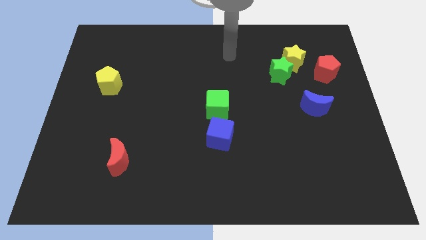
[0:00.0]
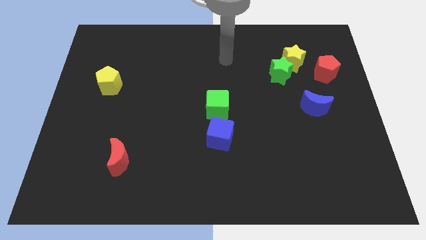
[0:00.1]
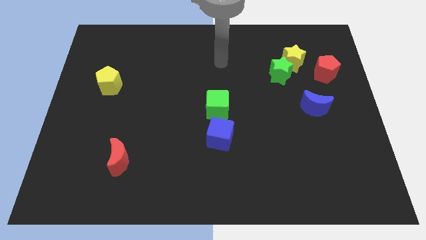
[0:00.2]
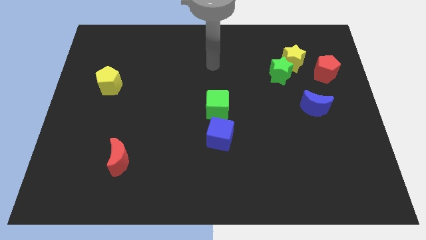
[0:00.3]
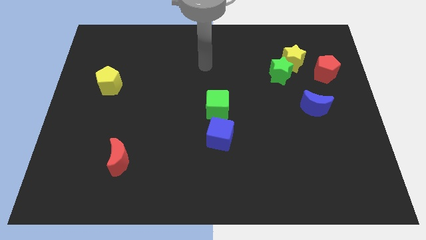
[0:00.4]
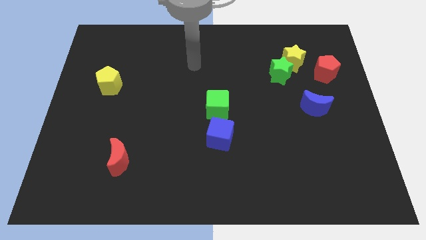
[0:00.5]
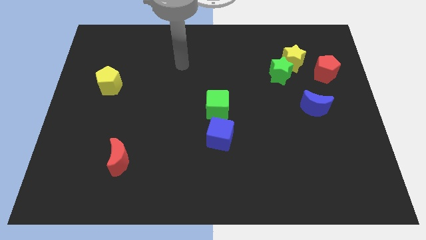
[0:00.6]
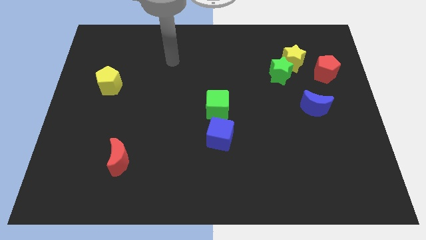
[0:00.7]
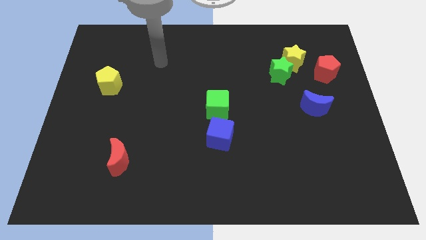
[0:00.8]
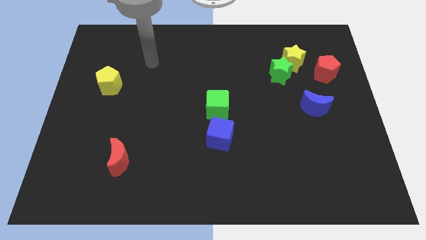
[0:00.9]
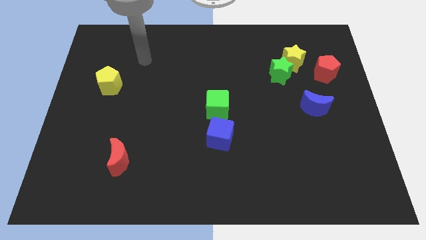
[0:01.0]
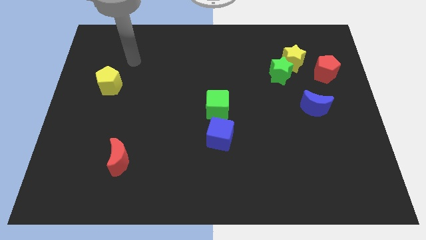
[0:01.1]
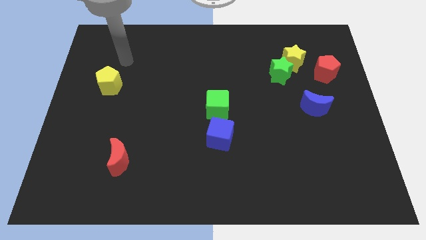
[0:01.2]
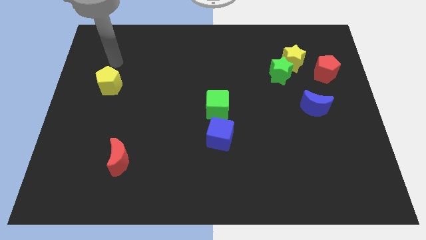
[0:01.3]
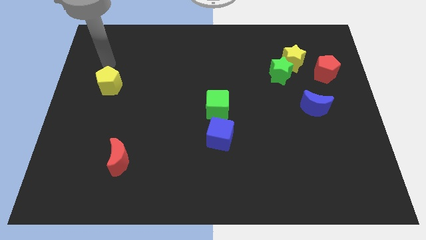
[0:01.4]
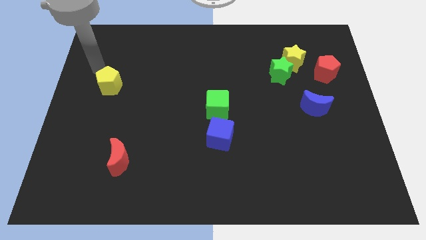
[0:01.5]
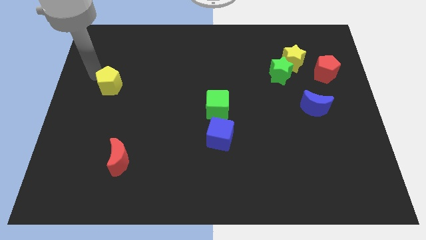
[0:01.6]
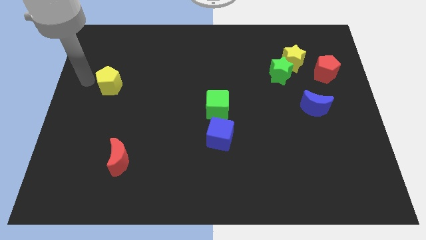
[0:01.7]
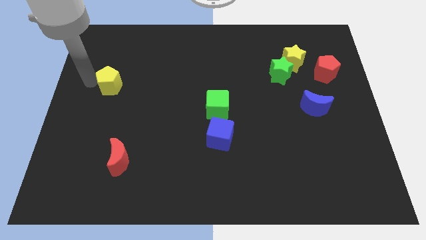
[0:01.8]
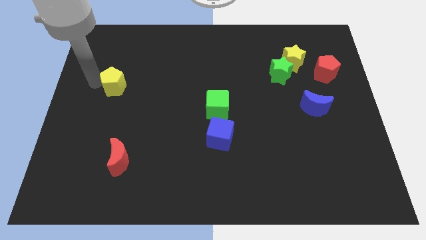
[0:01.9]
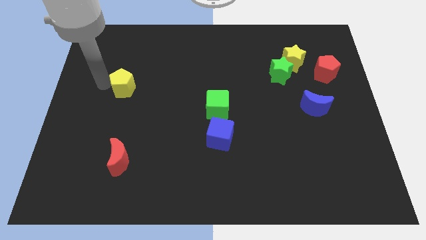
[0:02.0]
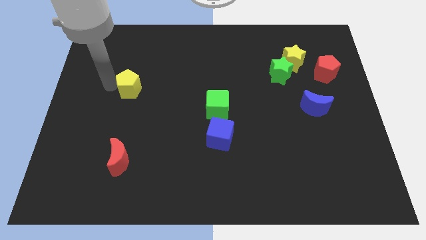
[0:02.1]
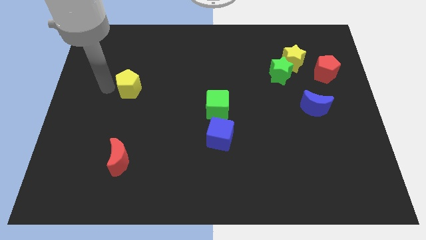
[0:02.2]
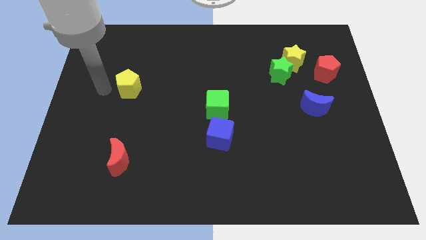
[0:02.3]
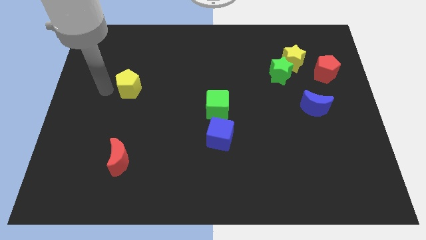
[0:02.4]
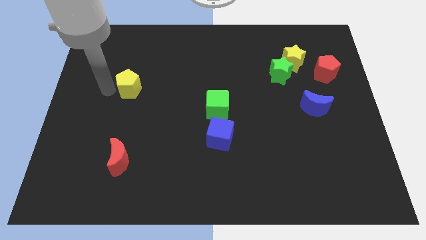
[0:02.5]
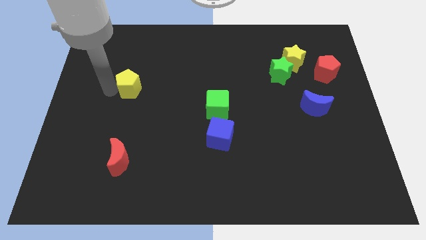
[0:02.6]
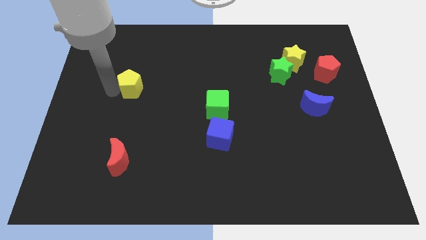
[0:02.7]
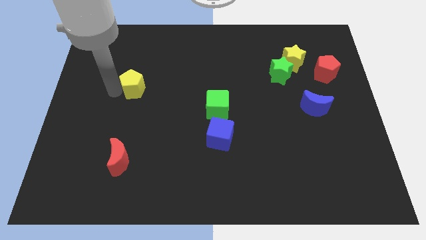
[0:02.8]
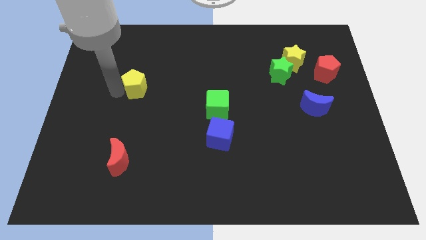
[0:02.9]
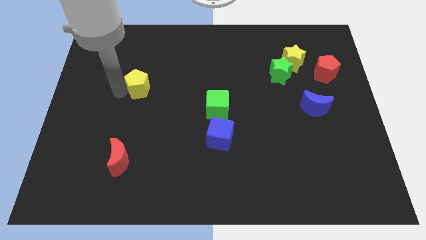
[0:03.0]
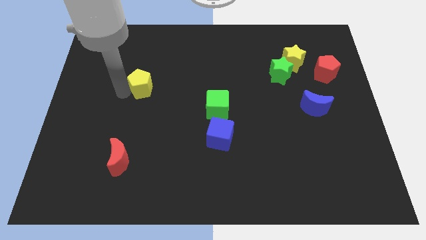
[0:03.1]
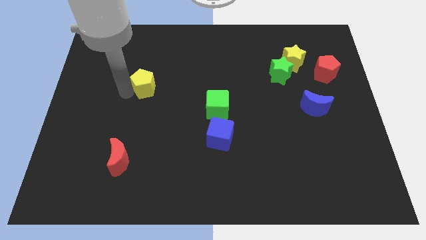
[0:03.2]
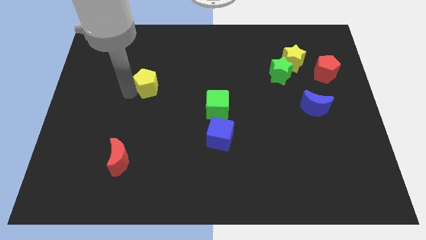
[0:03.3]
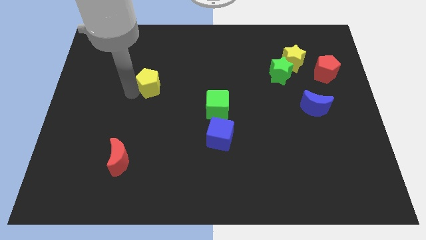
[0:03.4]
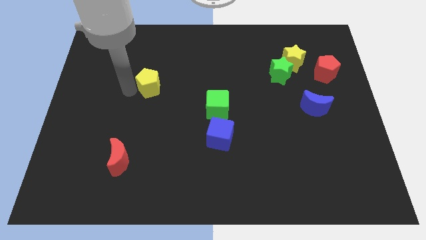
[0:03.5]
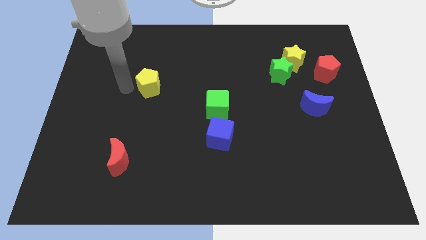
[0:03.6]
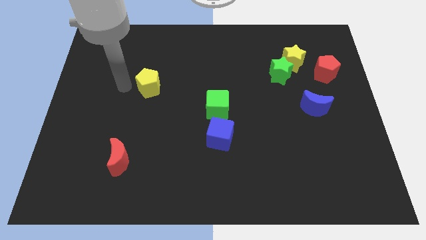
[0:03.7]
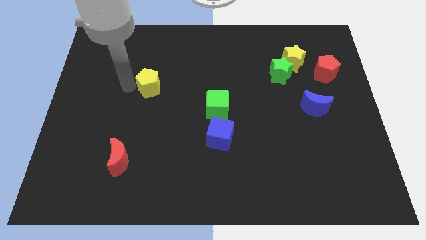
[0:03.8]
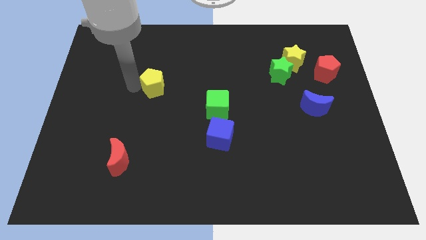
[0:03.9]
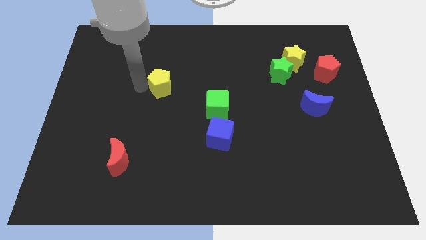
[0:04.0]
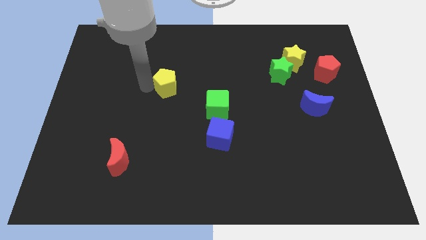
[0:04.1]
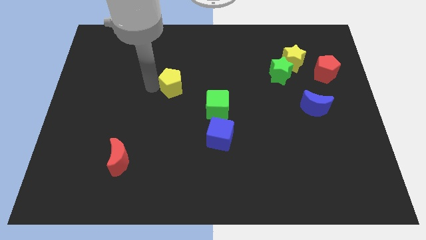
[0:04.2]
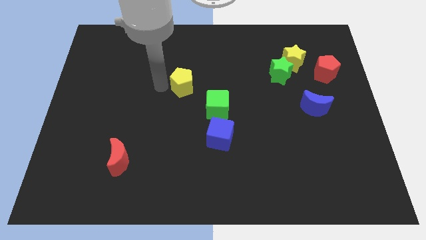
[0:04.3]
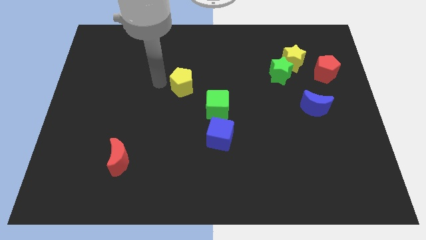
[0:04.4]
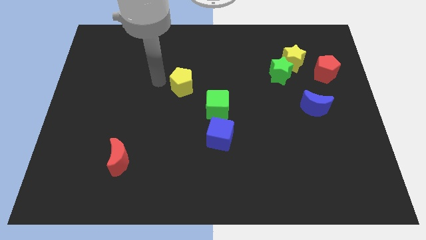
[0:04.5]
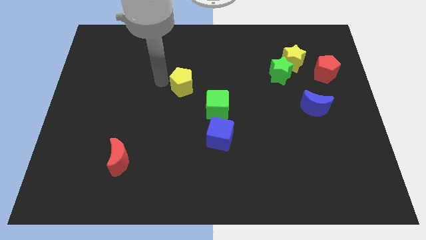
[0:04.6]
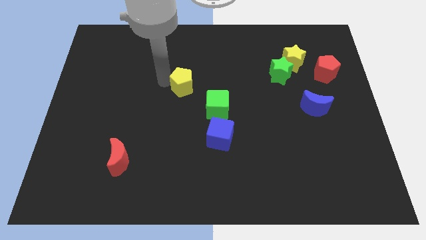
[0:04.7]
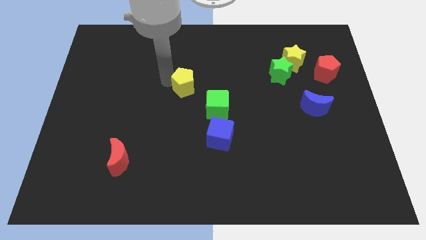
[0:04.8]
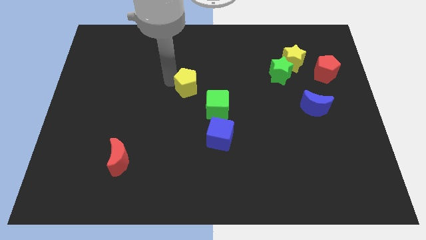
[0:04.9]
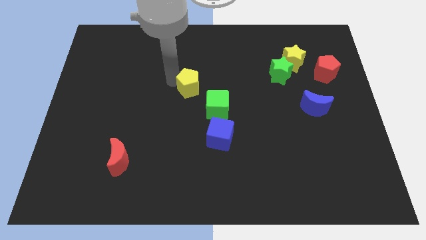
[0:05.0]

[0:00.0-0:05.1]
push the yellow pentagon right

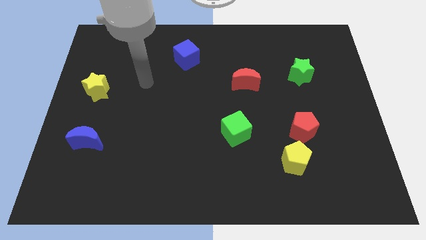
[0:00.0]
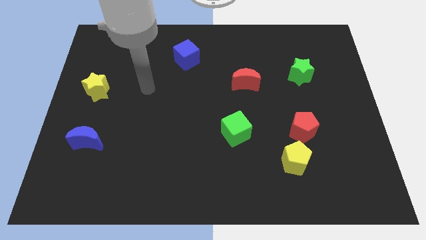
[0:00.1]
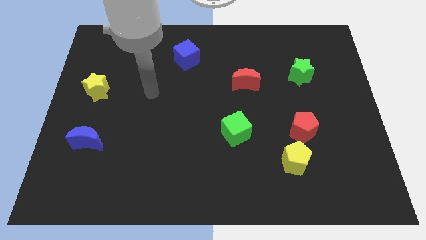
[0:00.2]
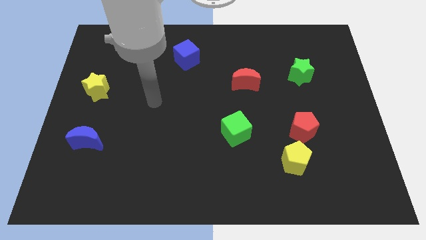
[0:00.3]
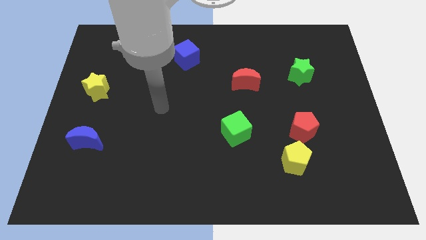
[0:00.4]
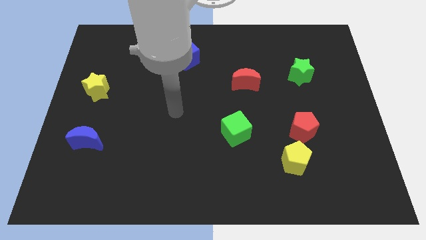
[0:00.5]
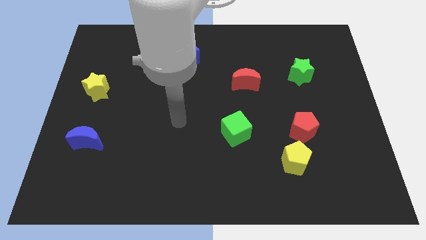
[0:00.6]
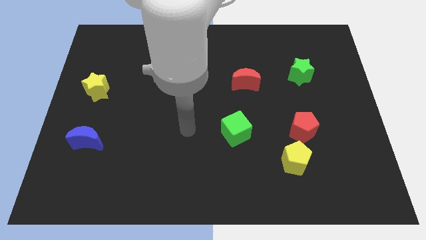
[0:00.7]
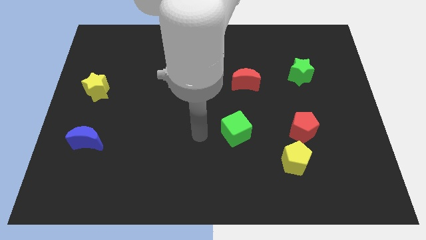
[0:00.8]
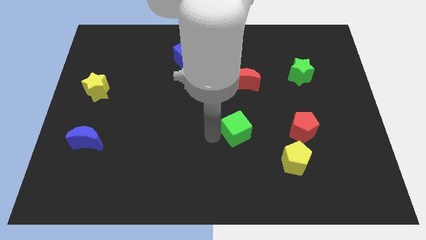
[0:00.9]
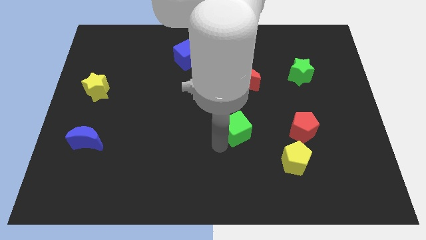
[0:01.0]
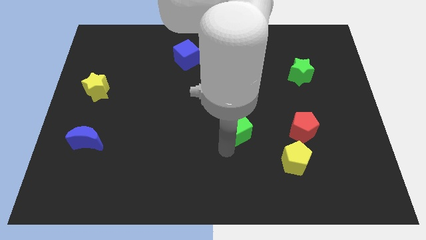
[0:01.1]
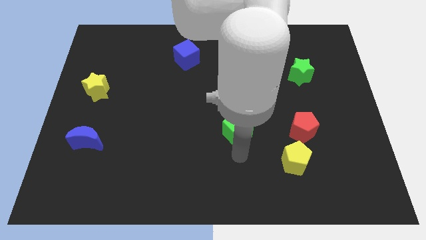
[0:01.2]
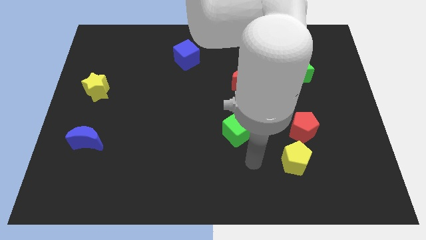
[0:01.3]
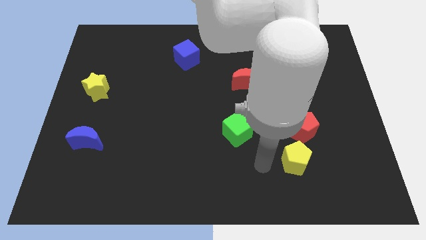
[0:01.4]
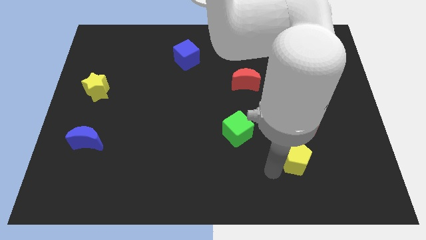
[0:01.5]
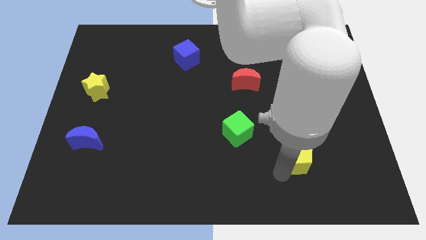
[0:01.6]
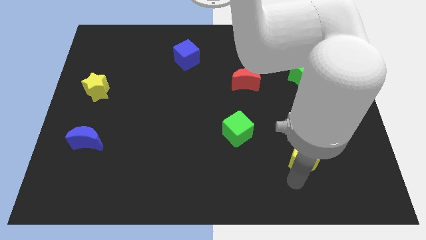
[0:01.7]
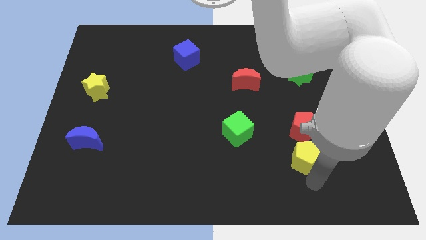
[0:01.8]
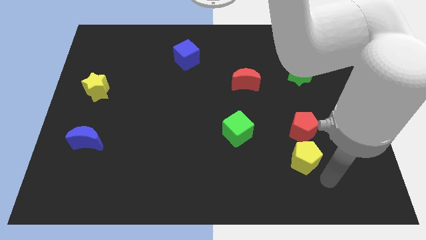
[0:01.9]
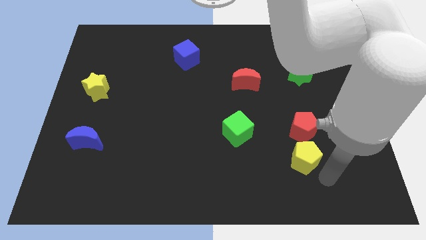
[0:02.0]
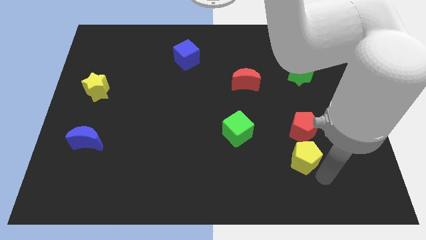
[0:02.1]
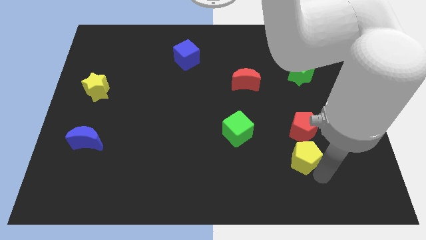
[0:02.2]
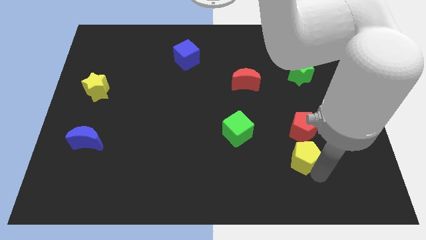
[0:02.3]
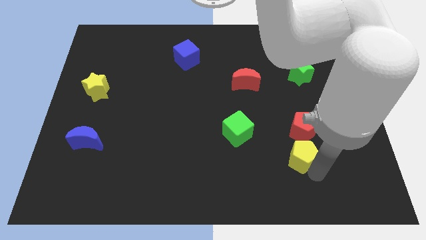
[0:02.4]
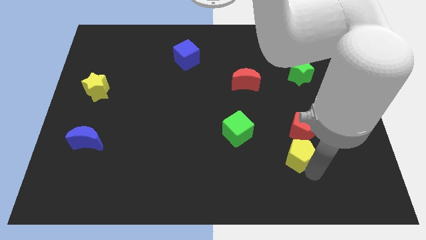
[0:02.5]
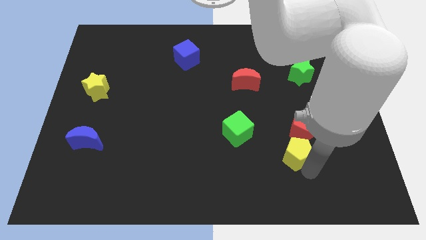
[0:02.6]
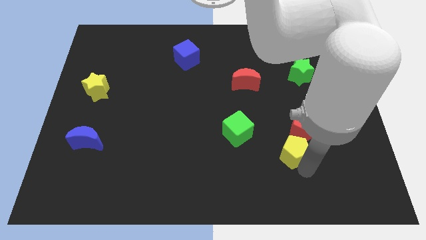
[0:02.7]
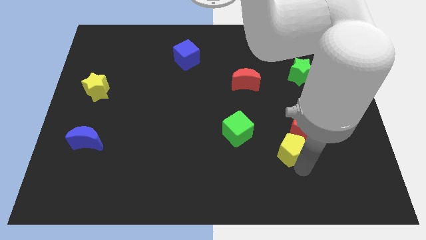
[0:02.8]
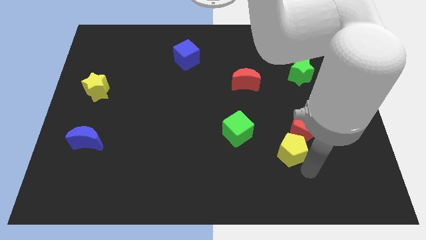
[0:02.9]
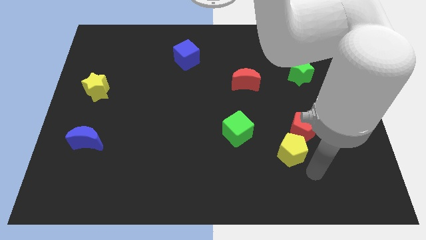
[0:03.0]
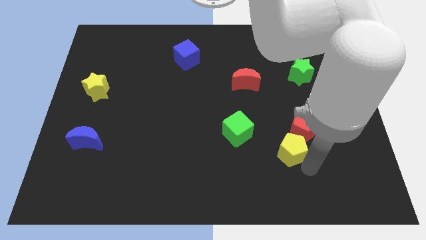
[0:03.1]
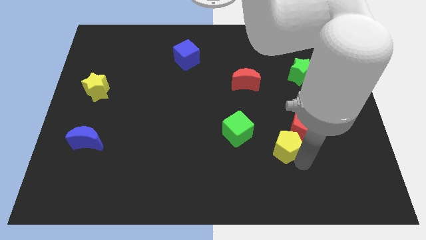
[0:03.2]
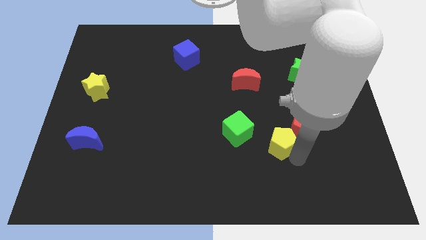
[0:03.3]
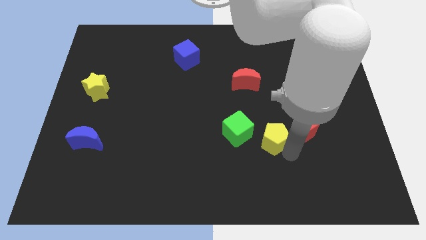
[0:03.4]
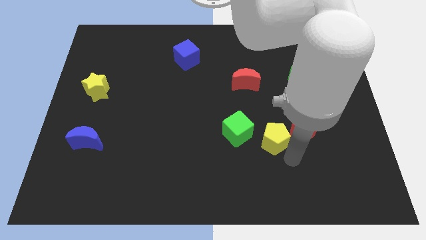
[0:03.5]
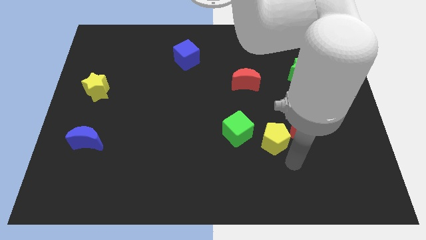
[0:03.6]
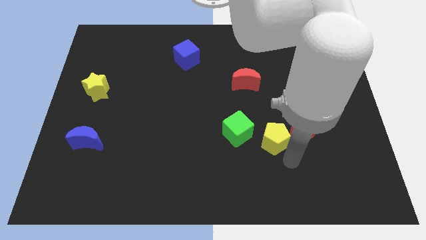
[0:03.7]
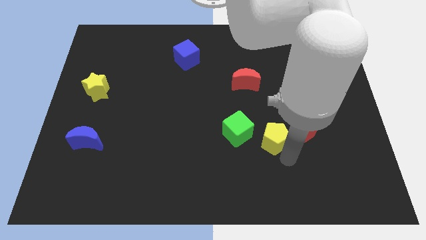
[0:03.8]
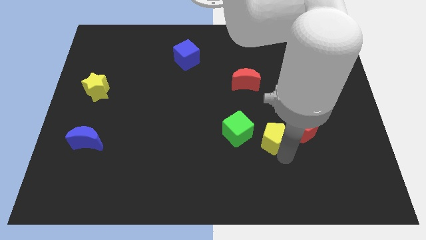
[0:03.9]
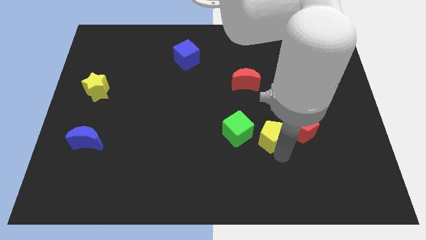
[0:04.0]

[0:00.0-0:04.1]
push the yellow pentagon diagonally upwards and to the left a bit
